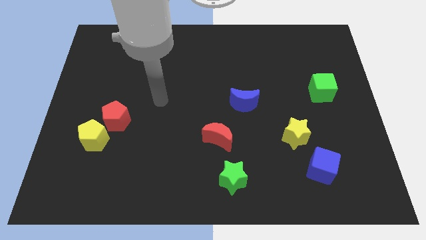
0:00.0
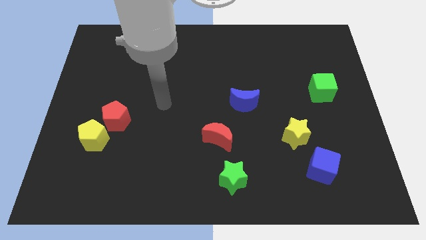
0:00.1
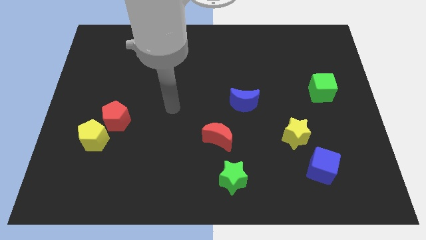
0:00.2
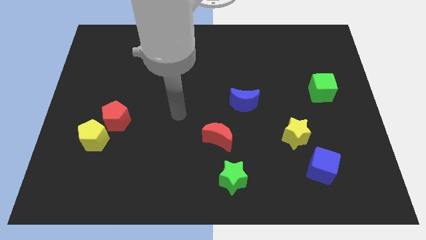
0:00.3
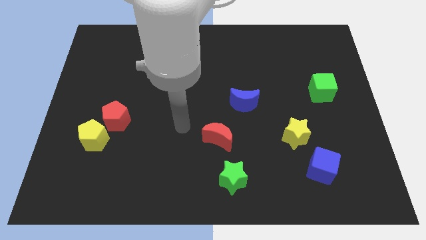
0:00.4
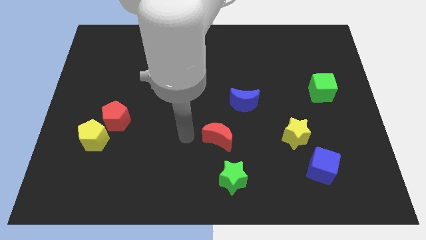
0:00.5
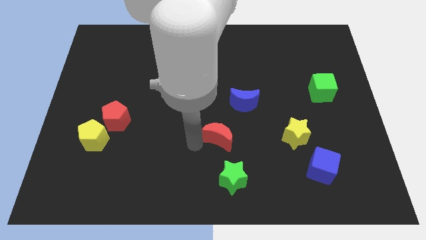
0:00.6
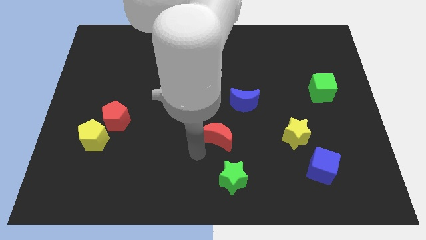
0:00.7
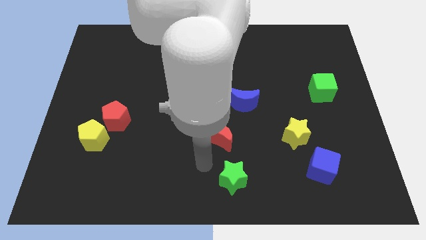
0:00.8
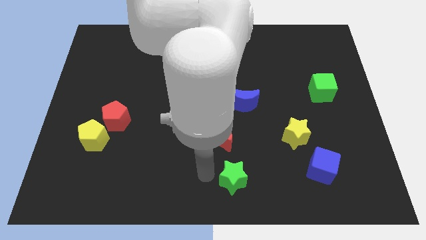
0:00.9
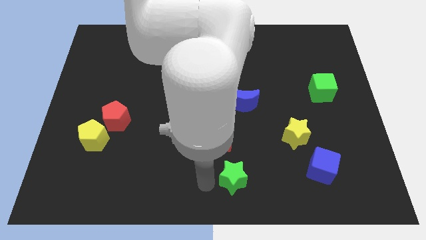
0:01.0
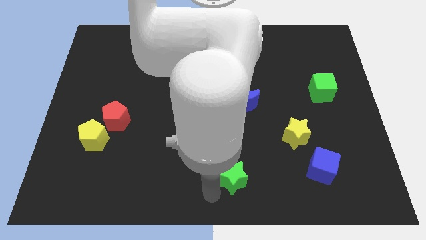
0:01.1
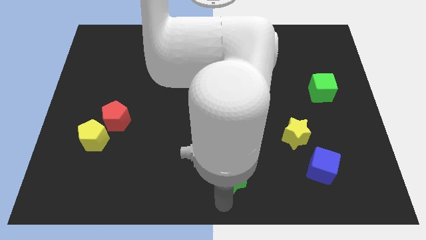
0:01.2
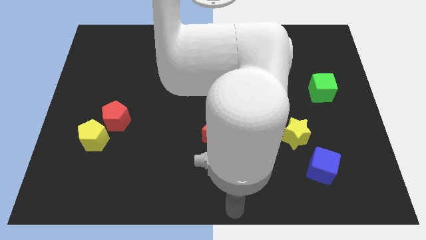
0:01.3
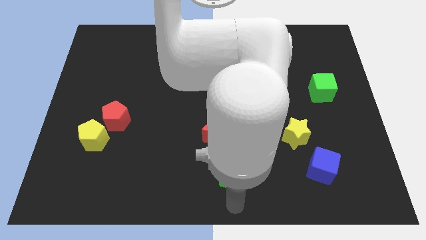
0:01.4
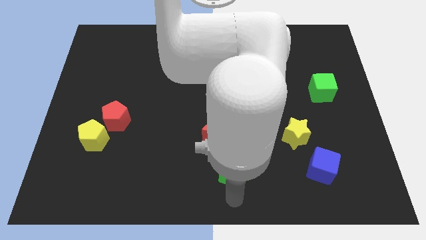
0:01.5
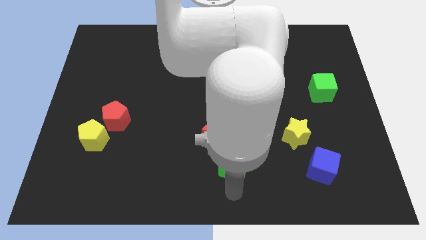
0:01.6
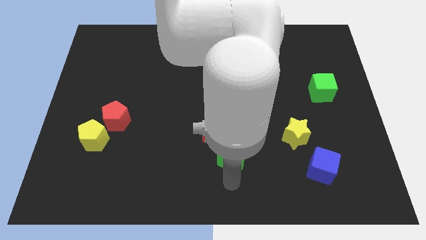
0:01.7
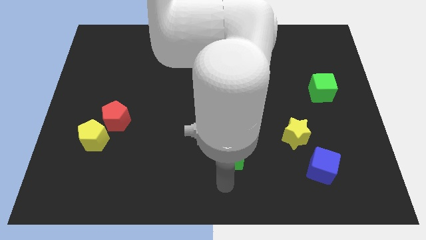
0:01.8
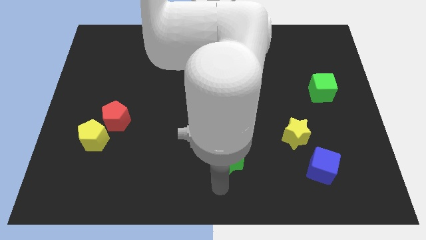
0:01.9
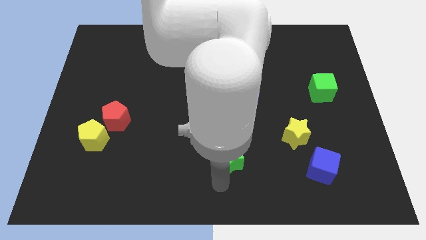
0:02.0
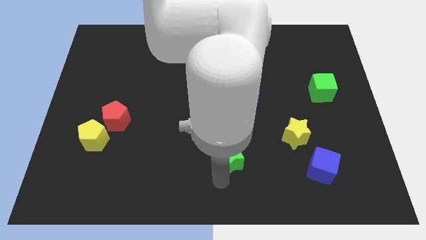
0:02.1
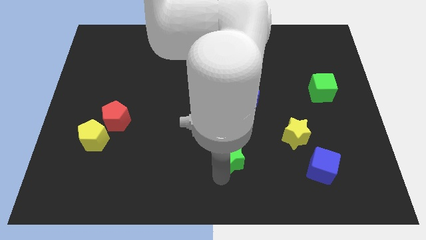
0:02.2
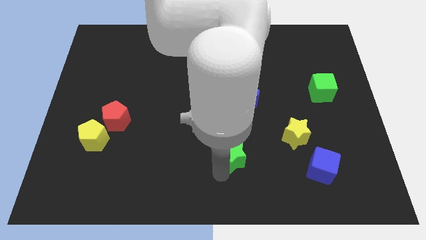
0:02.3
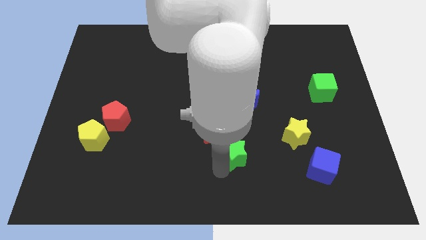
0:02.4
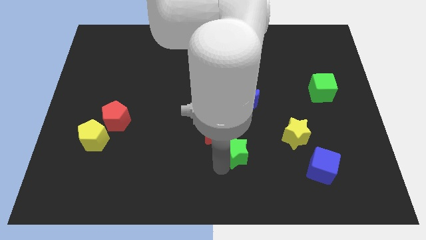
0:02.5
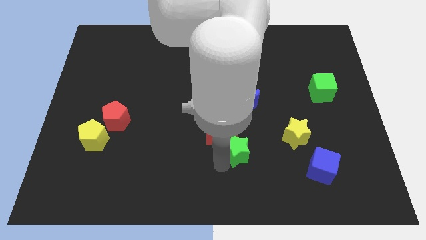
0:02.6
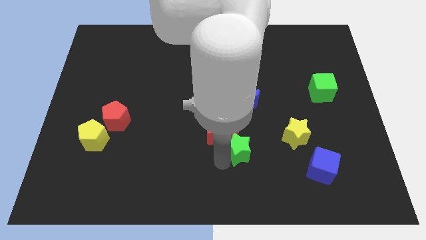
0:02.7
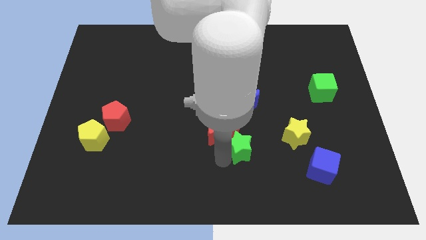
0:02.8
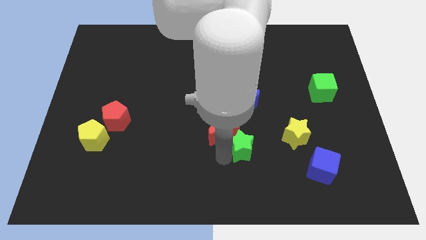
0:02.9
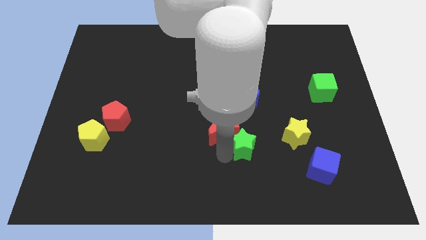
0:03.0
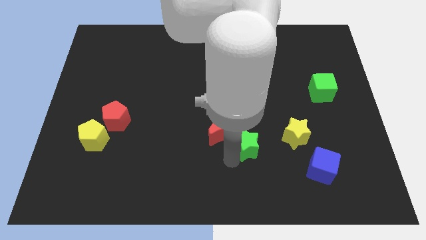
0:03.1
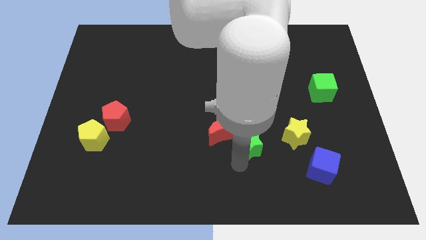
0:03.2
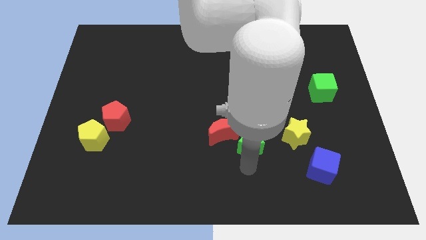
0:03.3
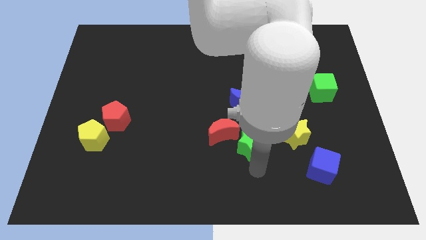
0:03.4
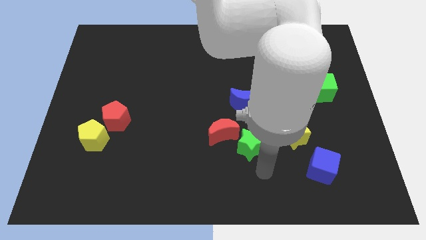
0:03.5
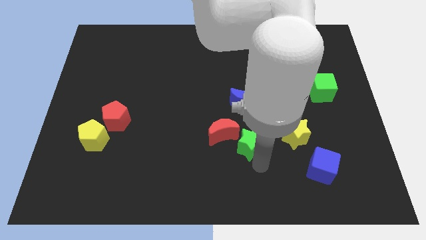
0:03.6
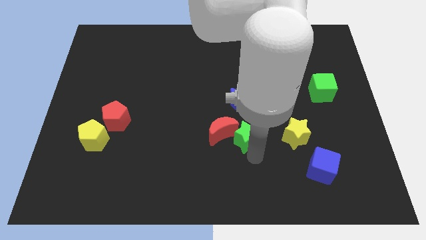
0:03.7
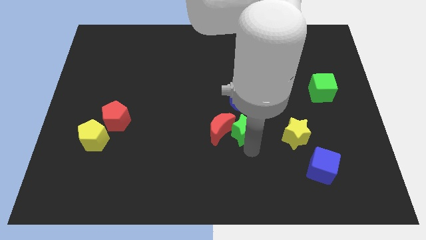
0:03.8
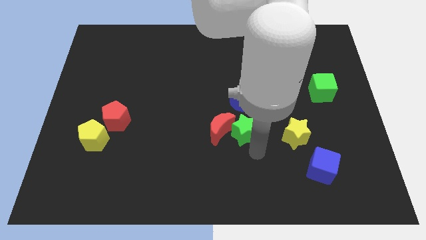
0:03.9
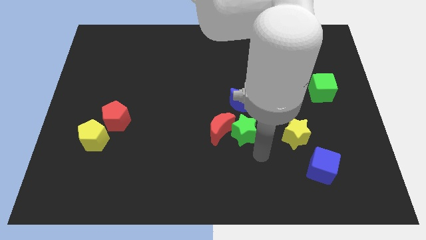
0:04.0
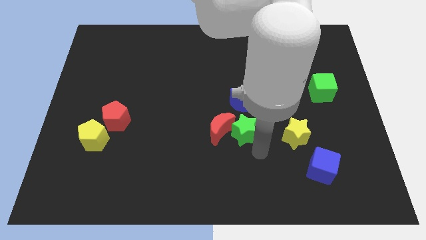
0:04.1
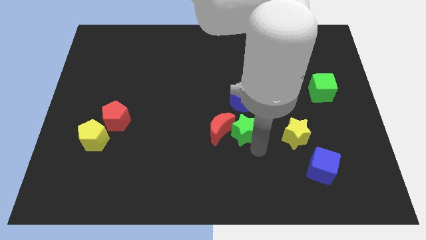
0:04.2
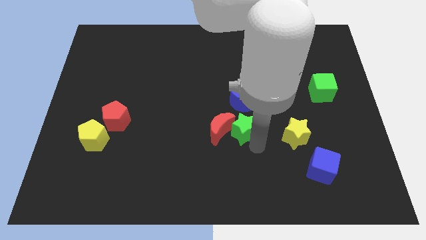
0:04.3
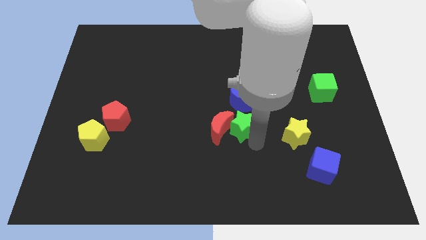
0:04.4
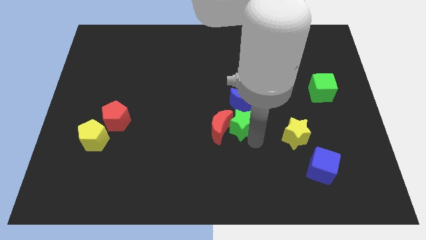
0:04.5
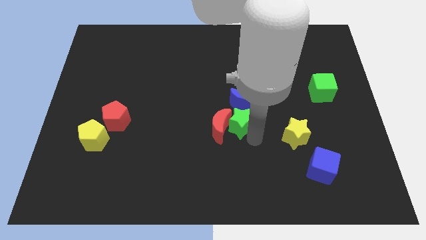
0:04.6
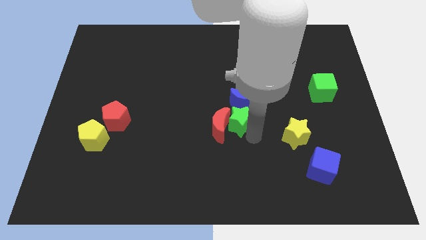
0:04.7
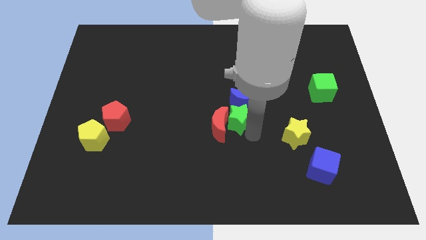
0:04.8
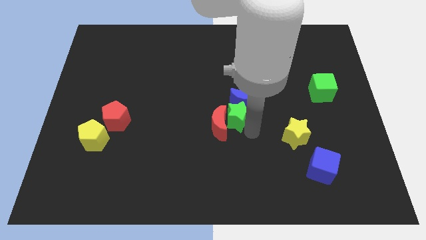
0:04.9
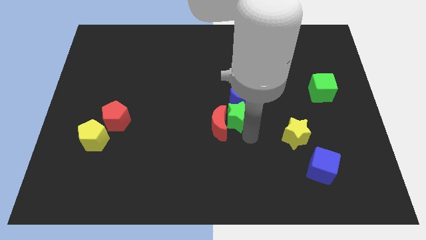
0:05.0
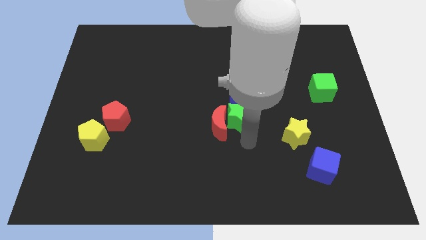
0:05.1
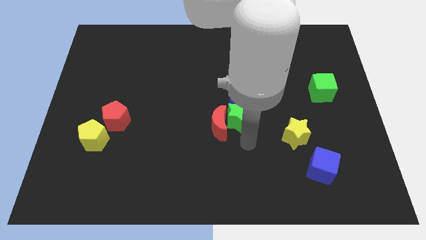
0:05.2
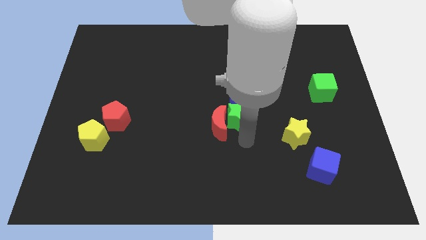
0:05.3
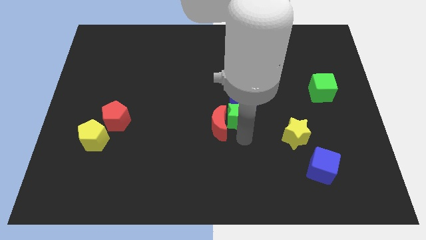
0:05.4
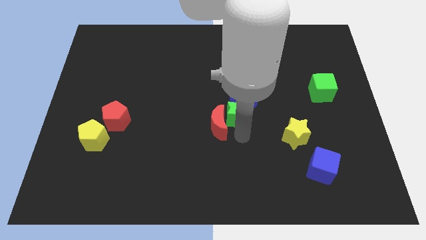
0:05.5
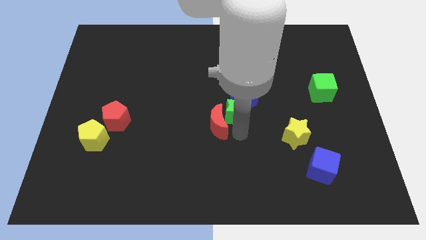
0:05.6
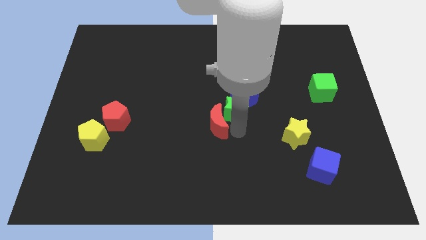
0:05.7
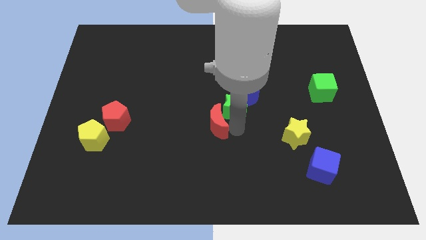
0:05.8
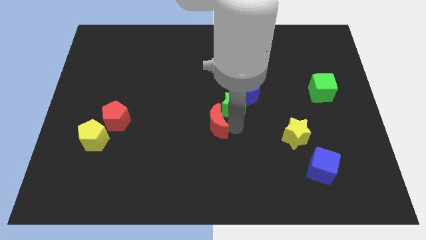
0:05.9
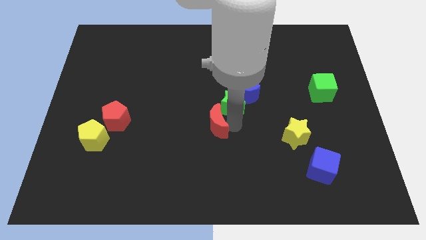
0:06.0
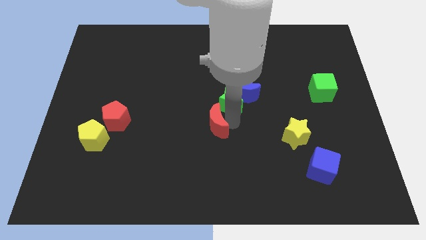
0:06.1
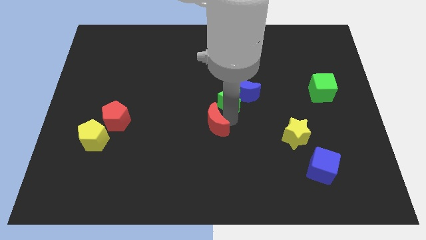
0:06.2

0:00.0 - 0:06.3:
push the green star upwards

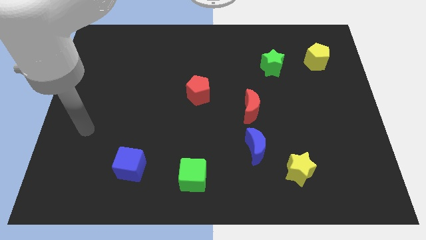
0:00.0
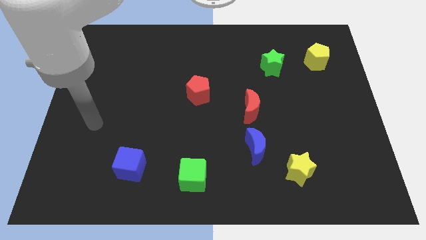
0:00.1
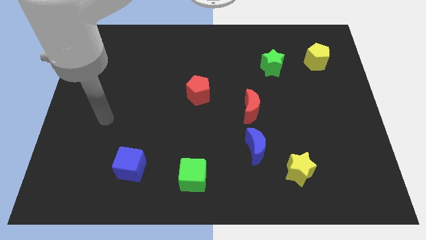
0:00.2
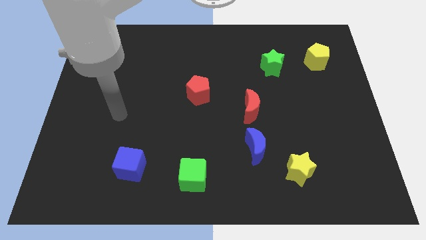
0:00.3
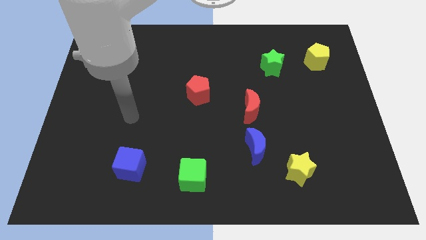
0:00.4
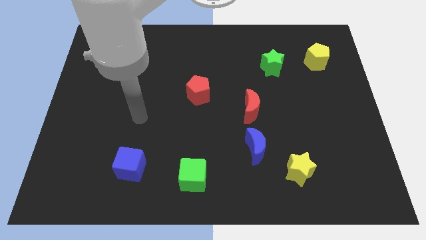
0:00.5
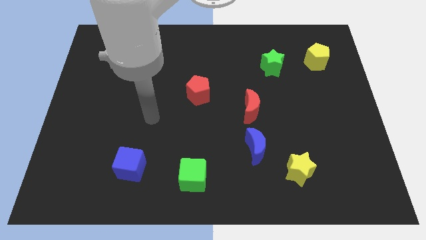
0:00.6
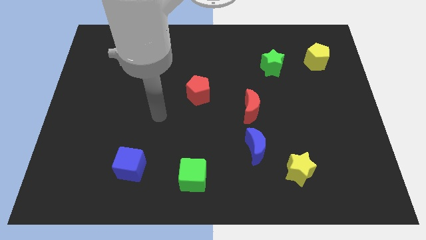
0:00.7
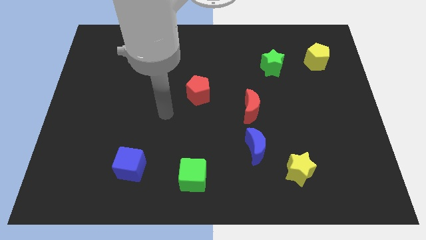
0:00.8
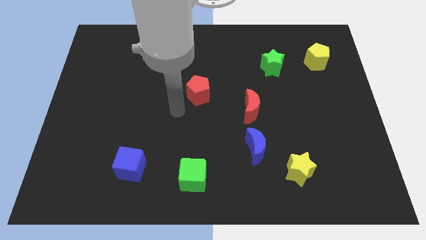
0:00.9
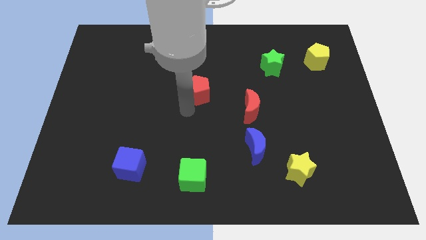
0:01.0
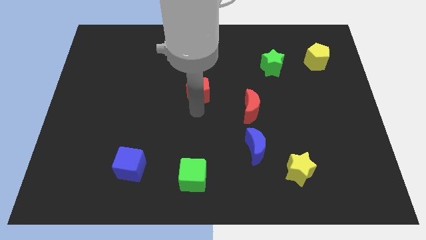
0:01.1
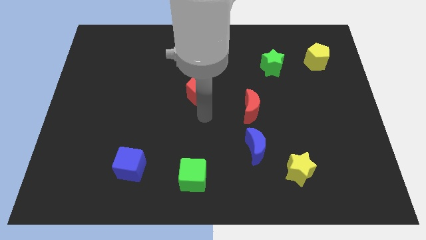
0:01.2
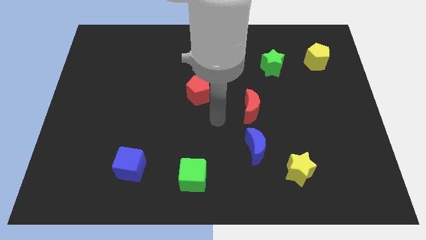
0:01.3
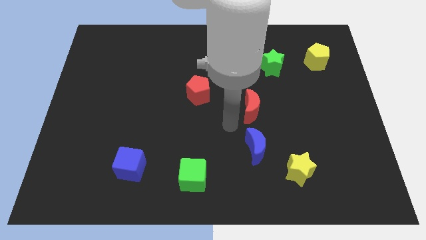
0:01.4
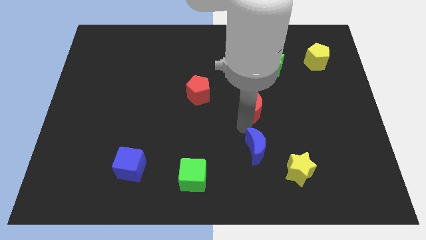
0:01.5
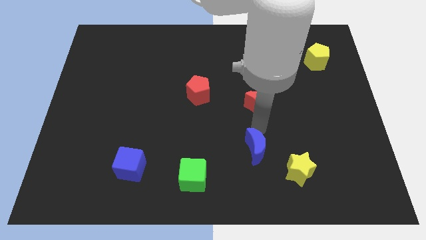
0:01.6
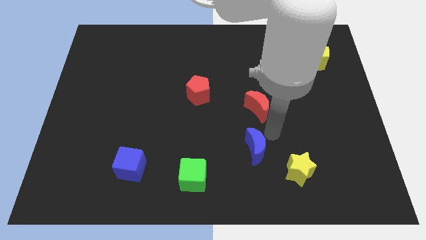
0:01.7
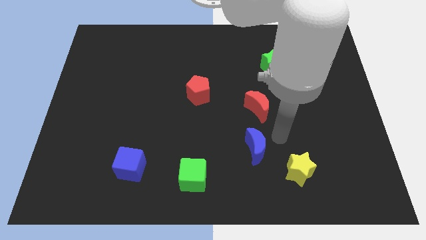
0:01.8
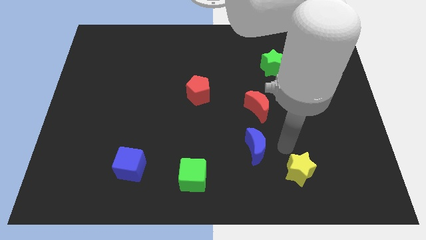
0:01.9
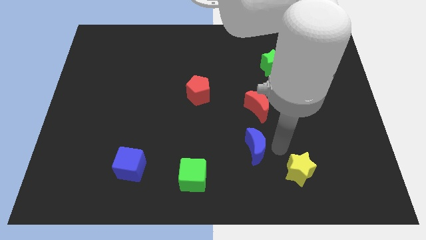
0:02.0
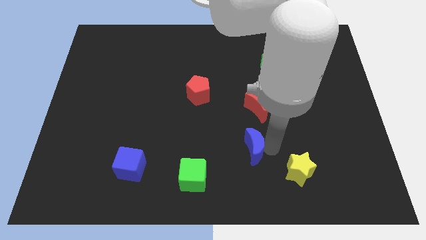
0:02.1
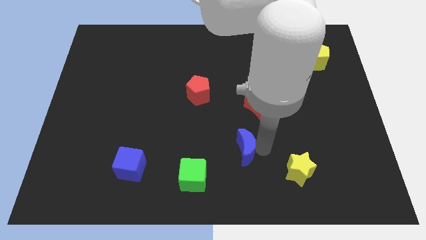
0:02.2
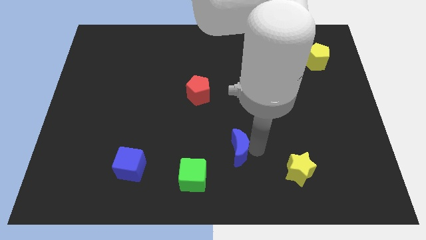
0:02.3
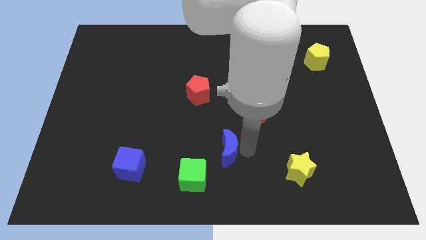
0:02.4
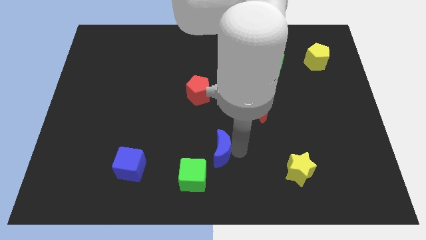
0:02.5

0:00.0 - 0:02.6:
slide the blue moon left somewhat
